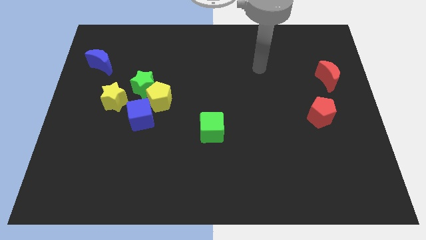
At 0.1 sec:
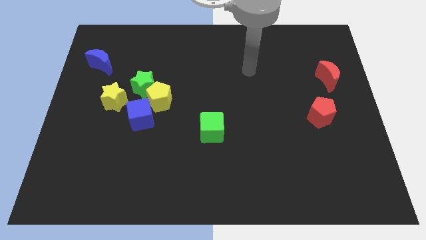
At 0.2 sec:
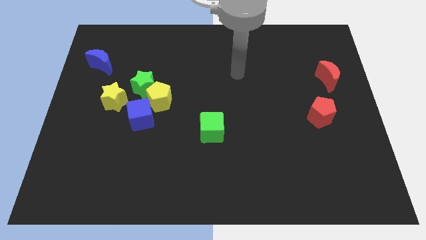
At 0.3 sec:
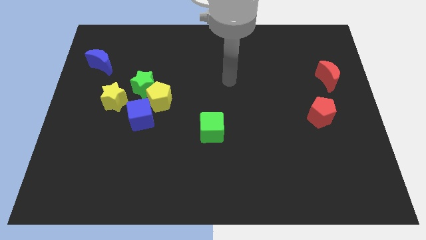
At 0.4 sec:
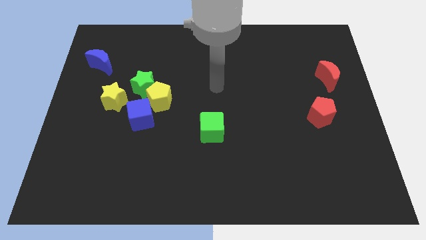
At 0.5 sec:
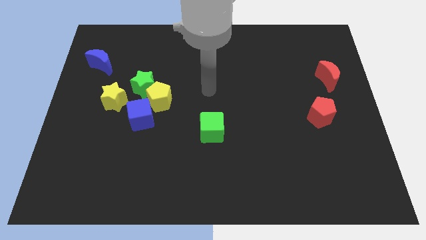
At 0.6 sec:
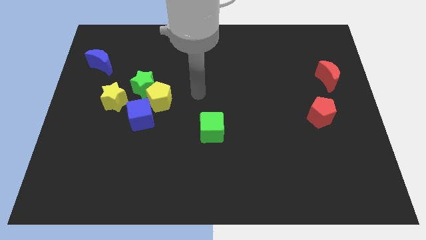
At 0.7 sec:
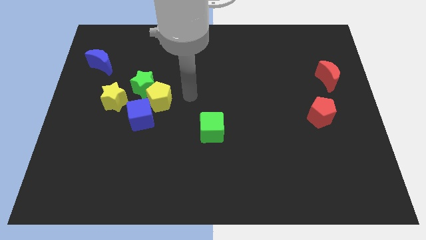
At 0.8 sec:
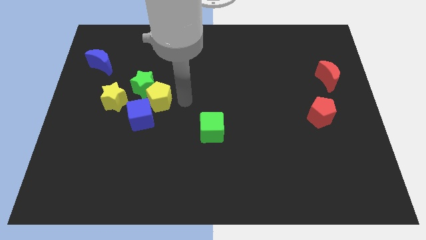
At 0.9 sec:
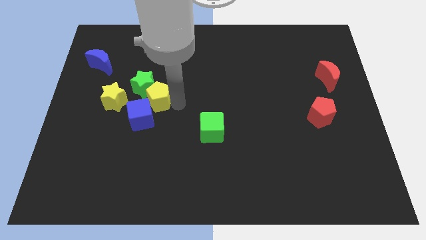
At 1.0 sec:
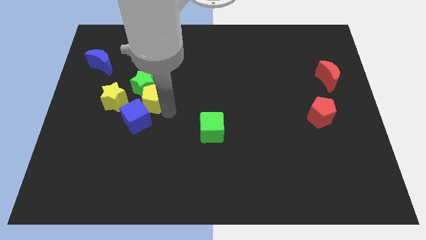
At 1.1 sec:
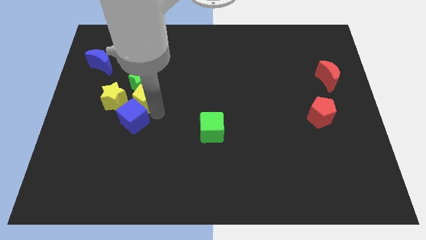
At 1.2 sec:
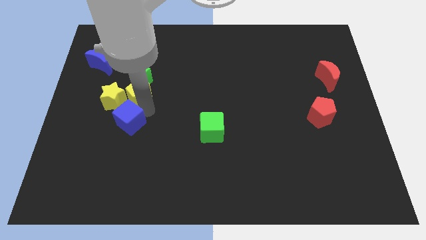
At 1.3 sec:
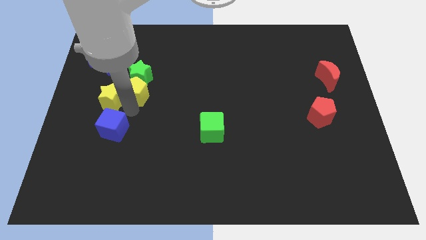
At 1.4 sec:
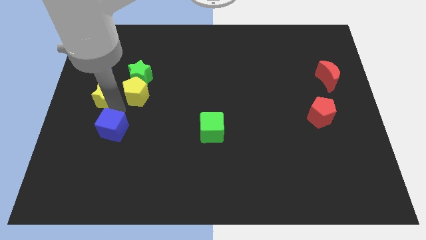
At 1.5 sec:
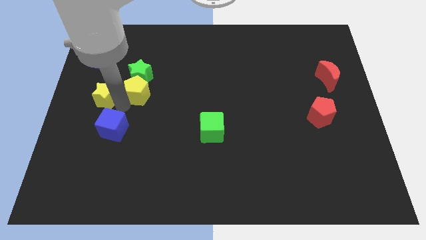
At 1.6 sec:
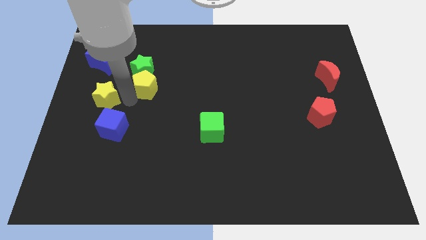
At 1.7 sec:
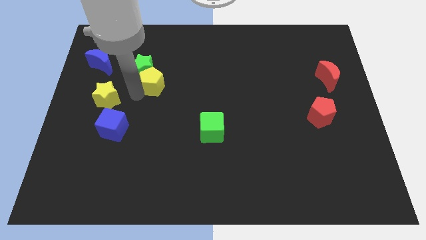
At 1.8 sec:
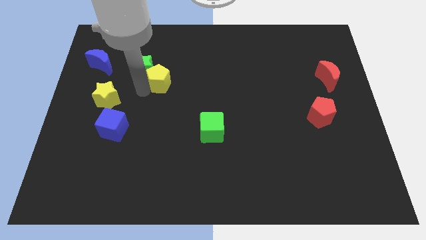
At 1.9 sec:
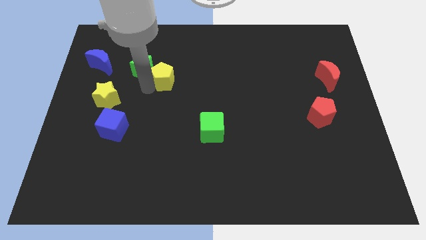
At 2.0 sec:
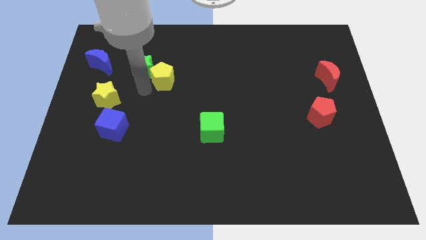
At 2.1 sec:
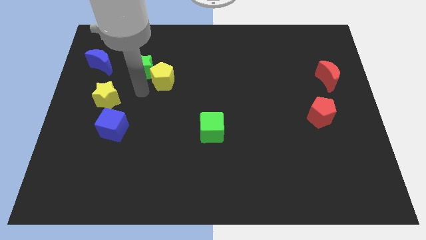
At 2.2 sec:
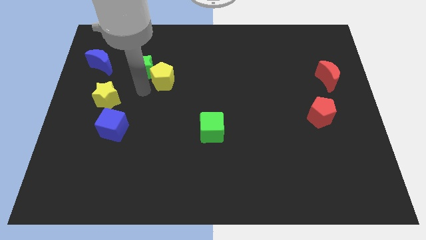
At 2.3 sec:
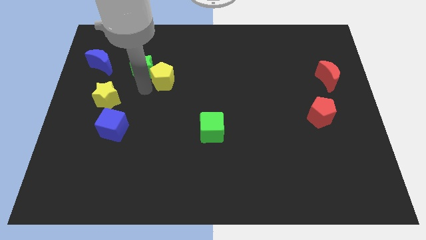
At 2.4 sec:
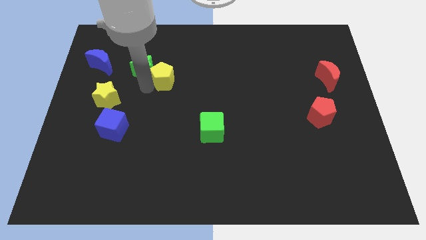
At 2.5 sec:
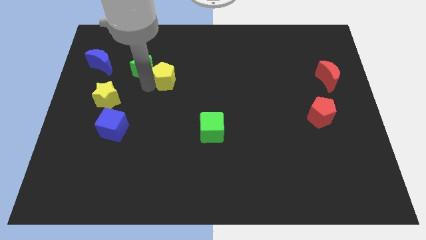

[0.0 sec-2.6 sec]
pull the yellow pentagon apart from the green star and blue cube

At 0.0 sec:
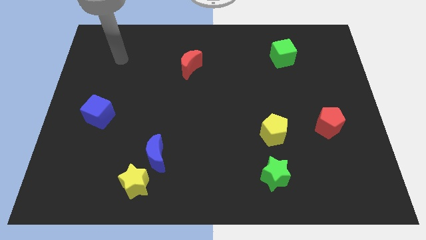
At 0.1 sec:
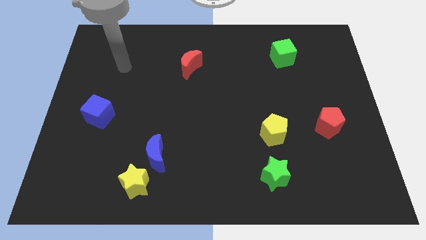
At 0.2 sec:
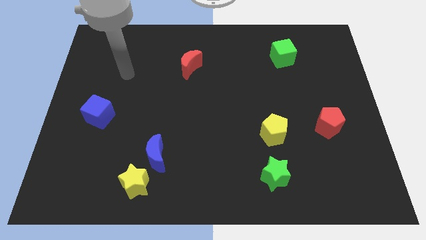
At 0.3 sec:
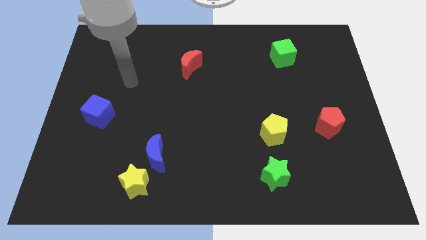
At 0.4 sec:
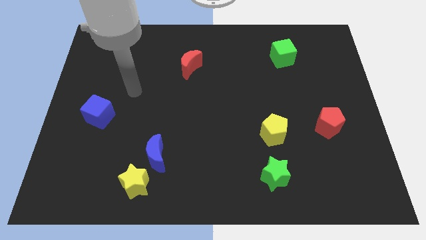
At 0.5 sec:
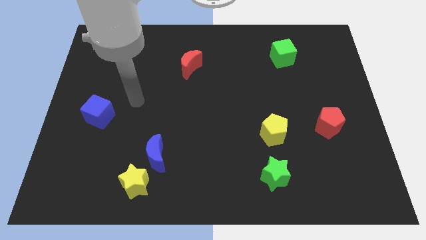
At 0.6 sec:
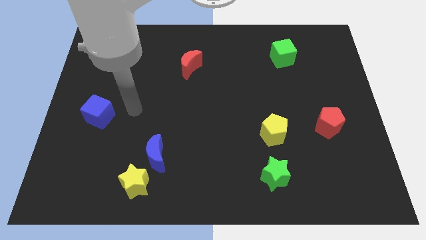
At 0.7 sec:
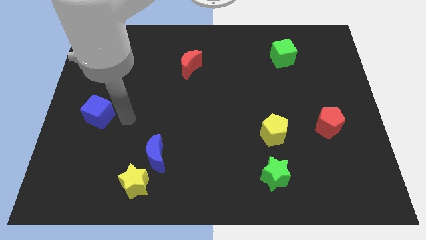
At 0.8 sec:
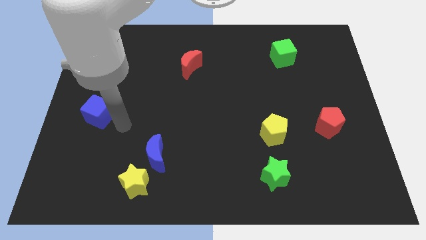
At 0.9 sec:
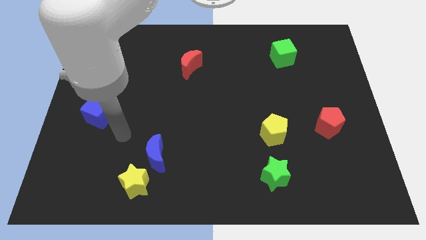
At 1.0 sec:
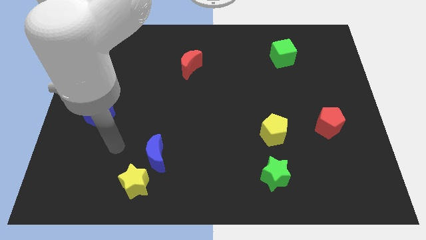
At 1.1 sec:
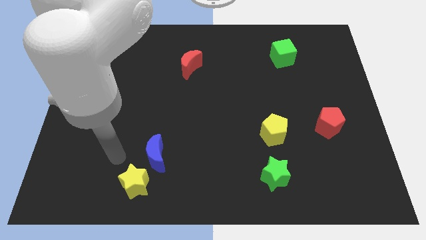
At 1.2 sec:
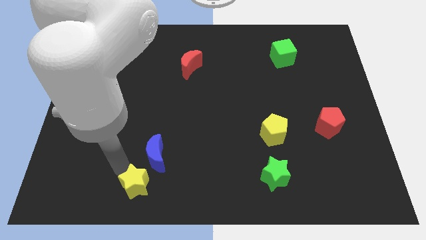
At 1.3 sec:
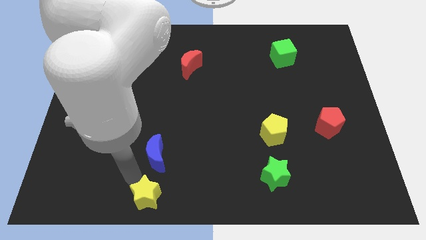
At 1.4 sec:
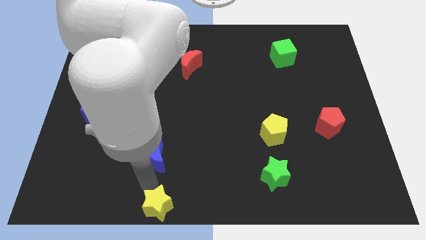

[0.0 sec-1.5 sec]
pull the blue moon apart from the yellow star

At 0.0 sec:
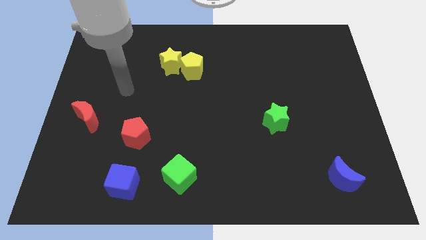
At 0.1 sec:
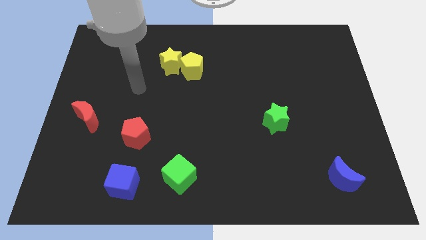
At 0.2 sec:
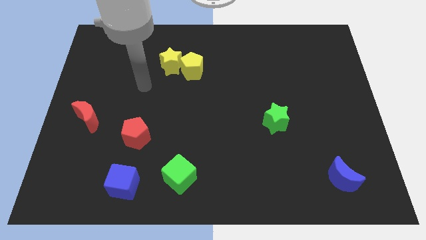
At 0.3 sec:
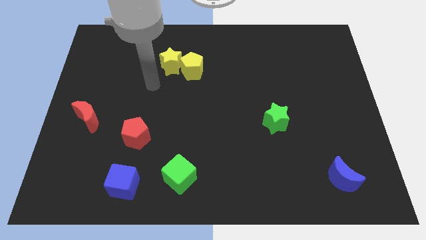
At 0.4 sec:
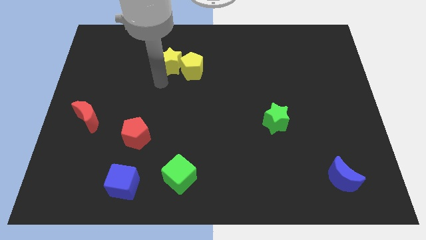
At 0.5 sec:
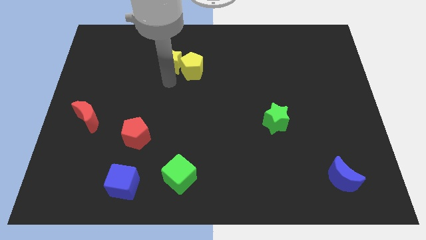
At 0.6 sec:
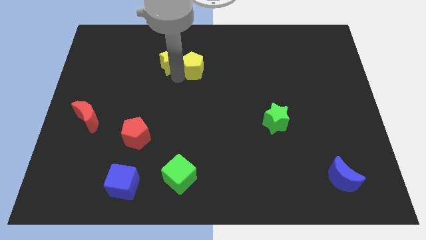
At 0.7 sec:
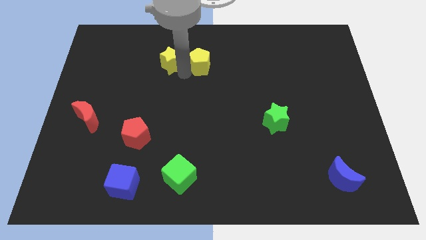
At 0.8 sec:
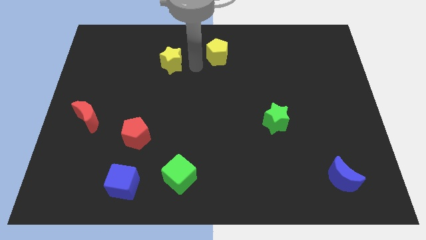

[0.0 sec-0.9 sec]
move the yellow star away from the yellow pentagon

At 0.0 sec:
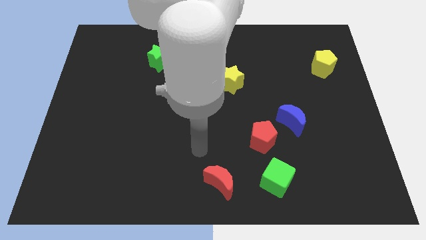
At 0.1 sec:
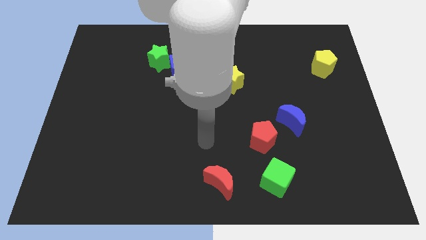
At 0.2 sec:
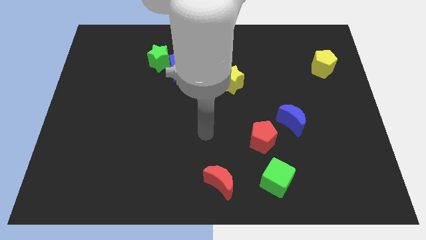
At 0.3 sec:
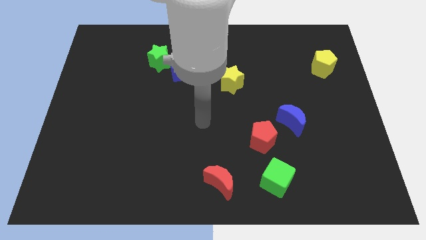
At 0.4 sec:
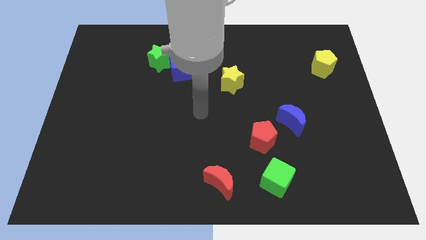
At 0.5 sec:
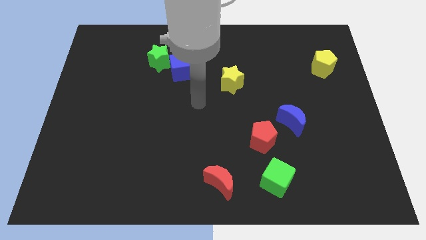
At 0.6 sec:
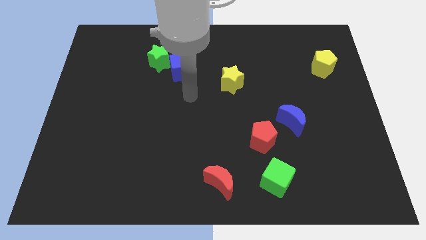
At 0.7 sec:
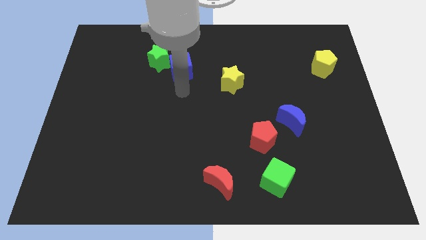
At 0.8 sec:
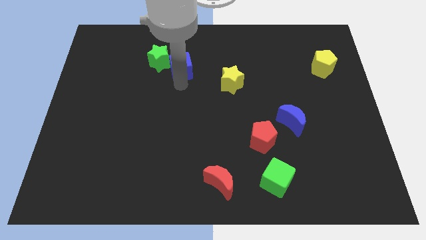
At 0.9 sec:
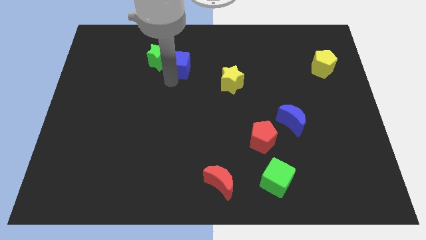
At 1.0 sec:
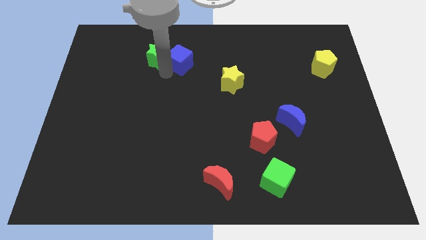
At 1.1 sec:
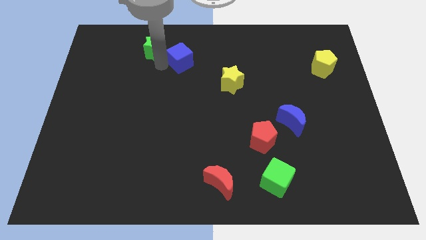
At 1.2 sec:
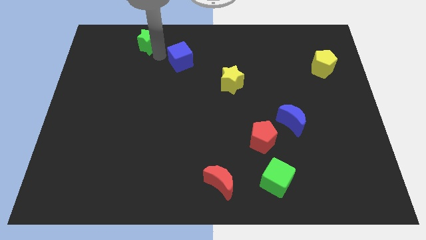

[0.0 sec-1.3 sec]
move the blue cube away from the green star

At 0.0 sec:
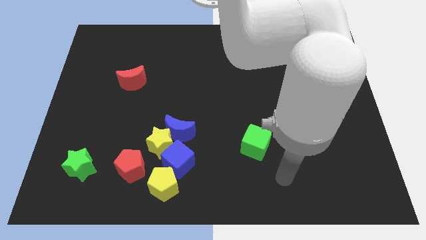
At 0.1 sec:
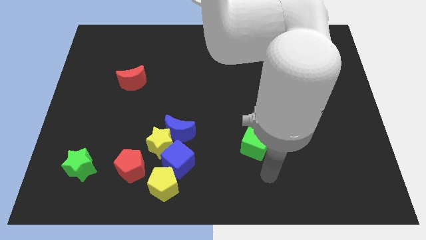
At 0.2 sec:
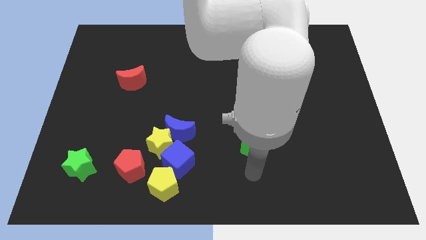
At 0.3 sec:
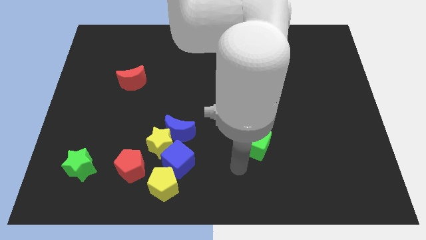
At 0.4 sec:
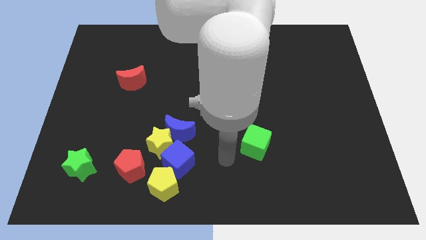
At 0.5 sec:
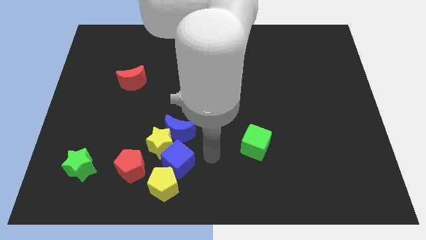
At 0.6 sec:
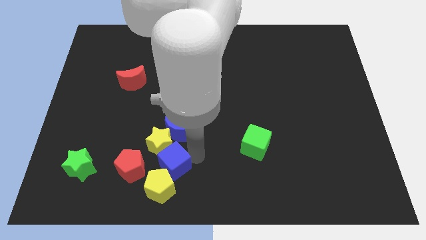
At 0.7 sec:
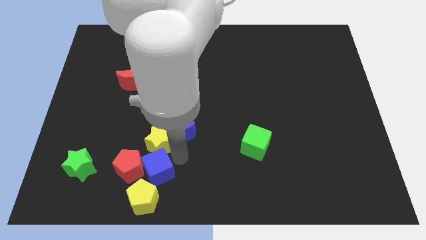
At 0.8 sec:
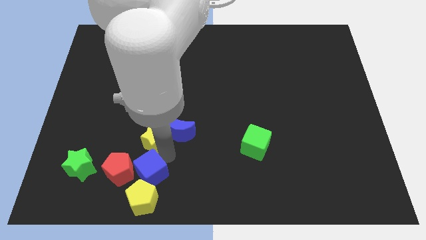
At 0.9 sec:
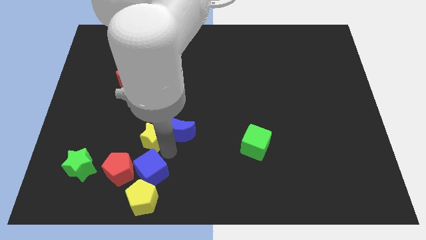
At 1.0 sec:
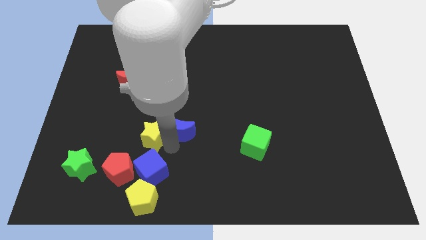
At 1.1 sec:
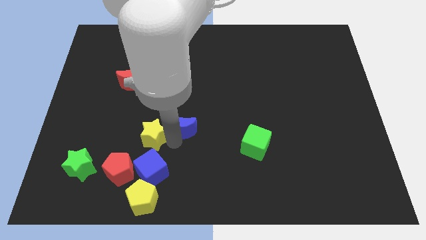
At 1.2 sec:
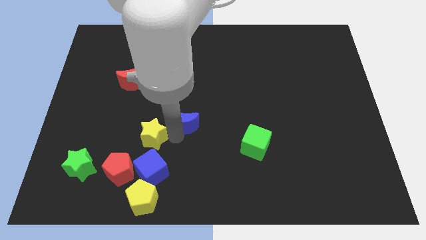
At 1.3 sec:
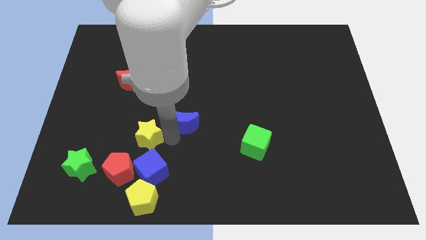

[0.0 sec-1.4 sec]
separate the blue moon from the yellow star and blue cube

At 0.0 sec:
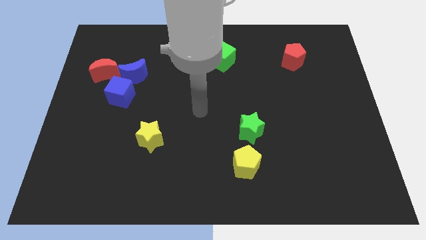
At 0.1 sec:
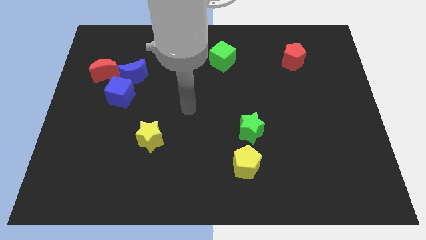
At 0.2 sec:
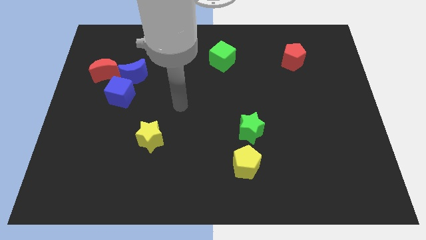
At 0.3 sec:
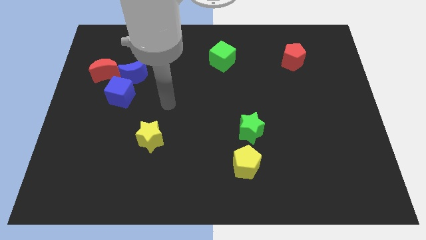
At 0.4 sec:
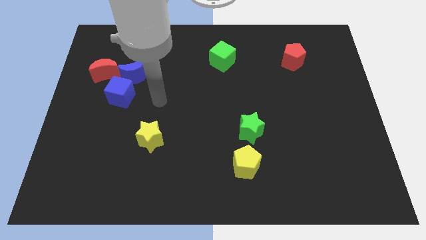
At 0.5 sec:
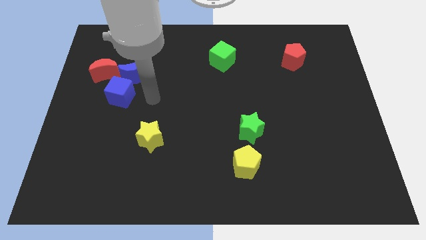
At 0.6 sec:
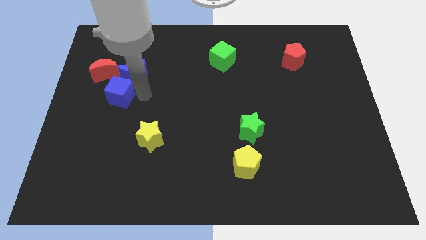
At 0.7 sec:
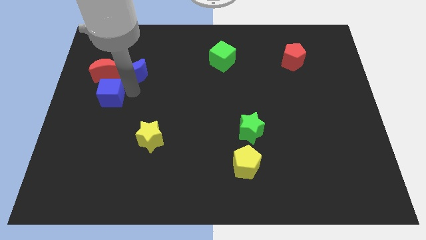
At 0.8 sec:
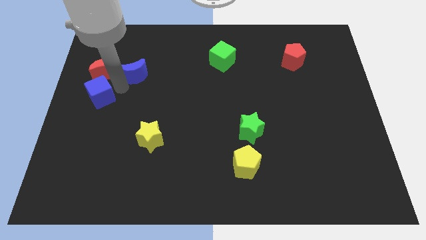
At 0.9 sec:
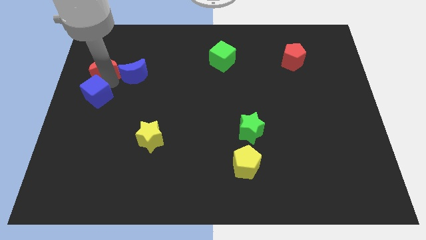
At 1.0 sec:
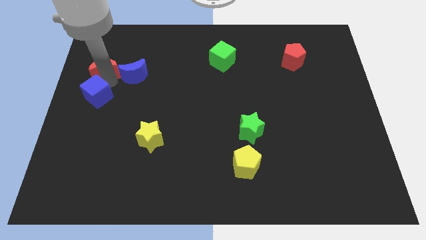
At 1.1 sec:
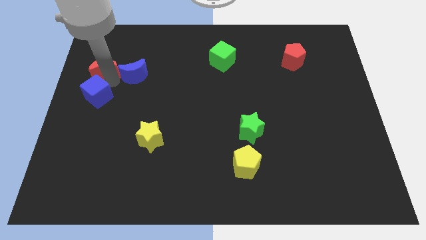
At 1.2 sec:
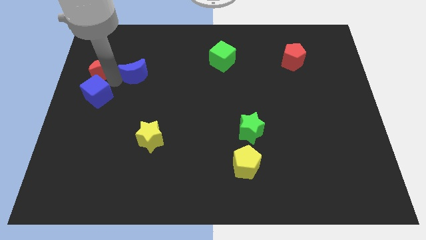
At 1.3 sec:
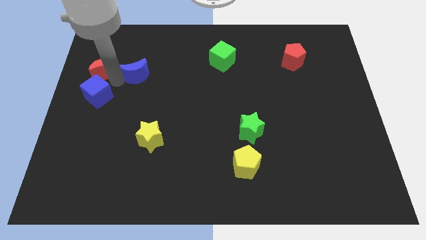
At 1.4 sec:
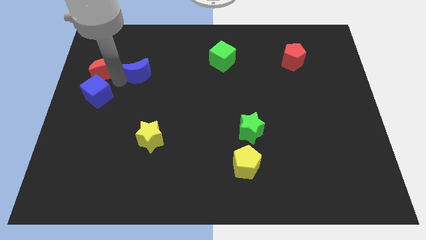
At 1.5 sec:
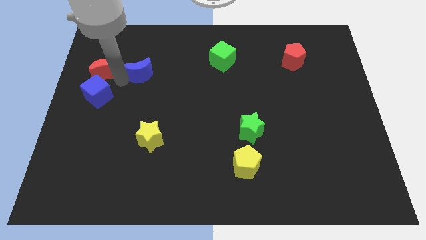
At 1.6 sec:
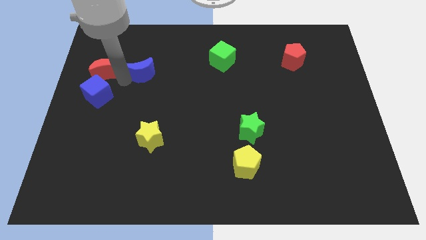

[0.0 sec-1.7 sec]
move the blue moon away from the blue cube and red moon
